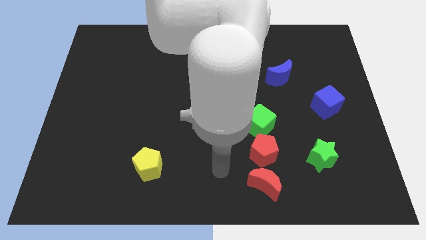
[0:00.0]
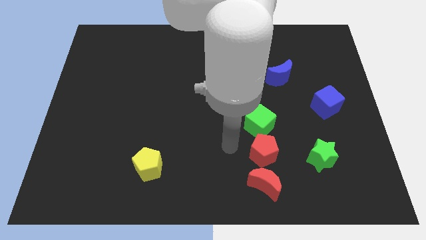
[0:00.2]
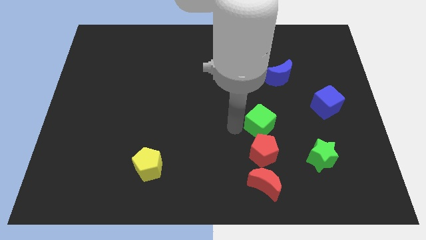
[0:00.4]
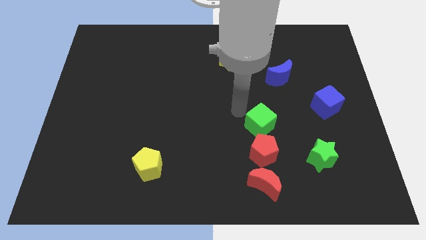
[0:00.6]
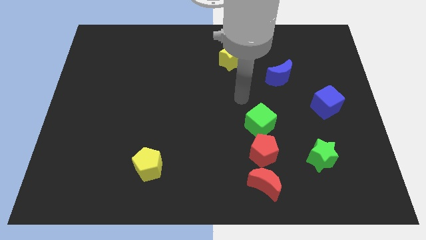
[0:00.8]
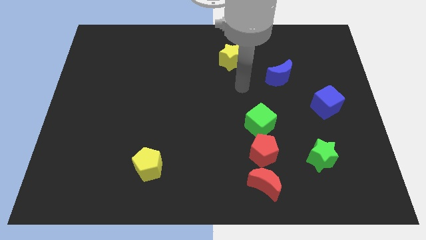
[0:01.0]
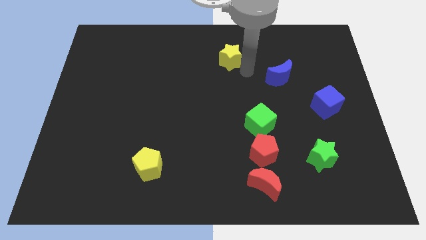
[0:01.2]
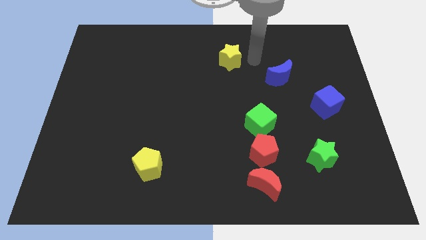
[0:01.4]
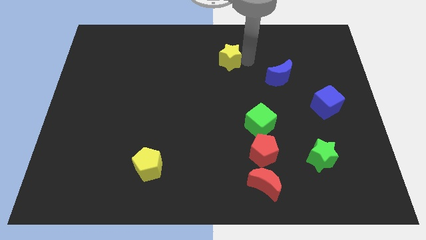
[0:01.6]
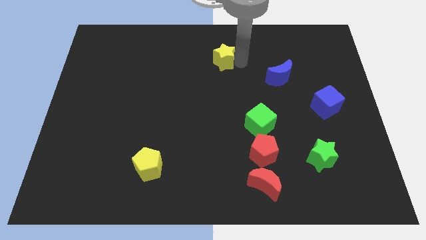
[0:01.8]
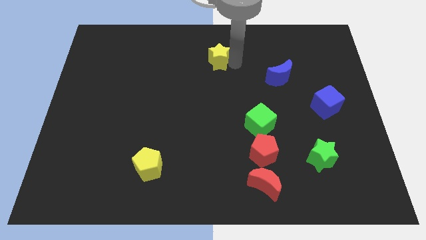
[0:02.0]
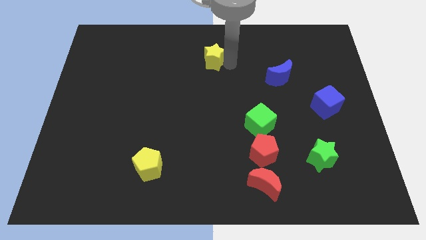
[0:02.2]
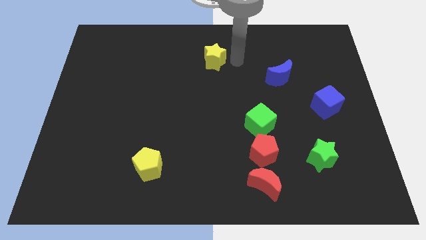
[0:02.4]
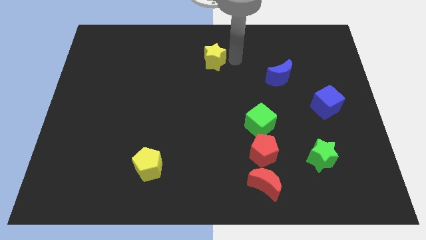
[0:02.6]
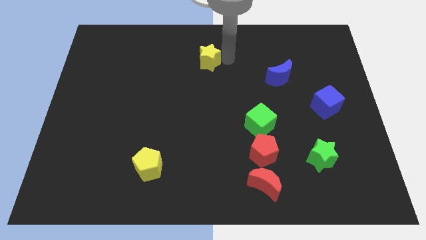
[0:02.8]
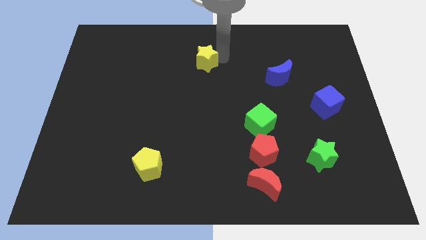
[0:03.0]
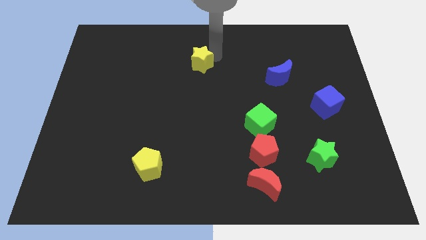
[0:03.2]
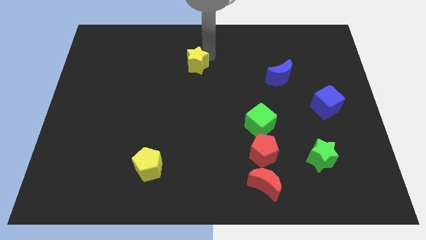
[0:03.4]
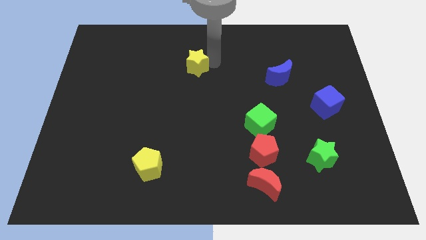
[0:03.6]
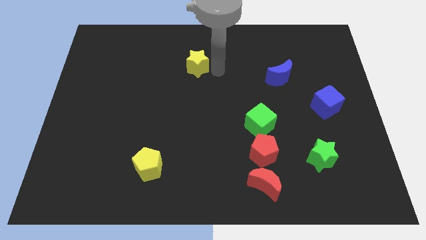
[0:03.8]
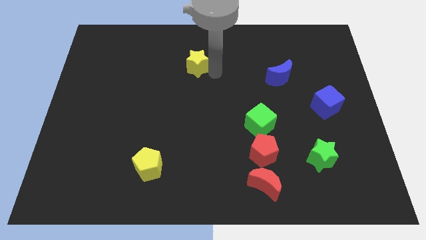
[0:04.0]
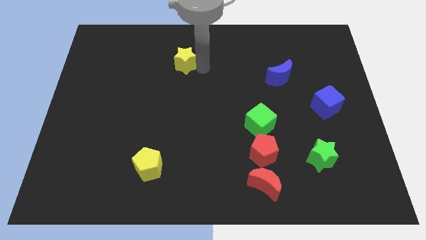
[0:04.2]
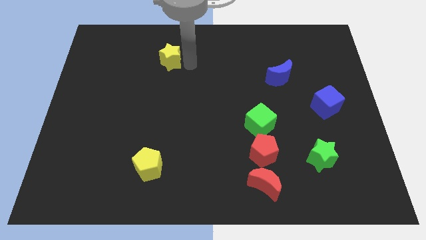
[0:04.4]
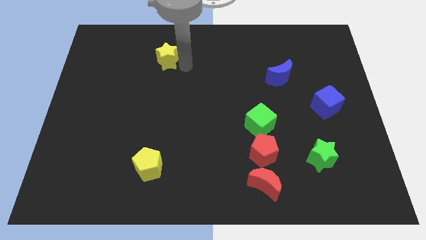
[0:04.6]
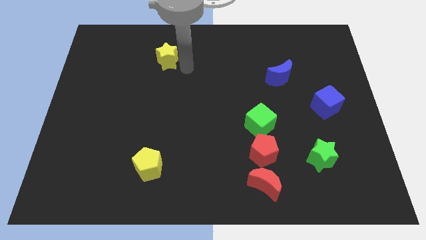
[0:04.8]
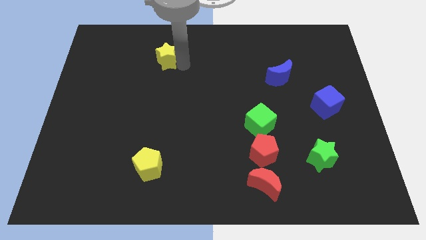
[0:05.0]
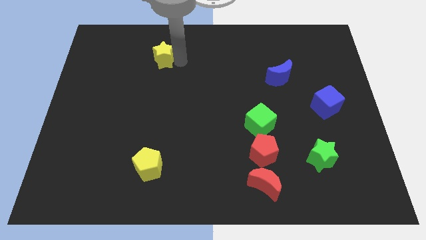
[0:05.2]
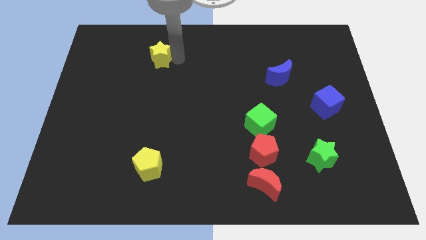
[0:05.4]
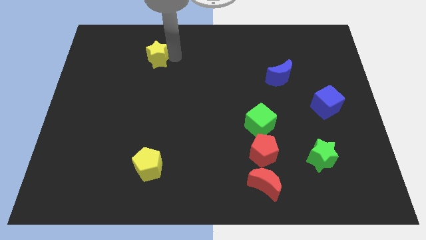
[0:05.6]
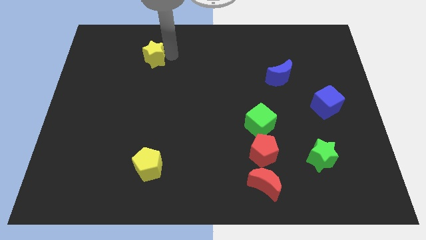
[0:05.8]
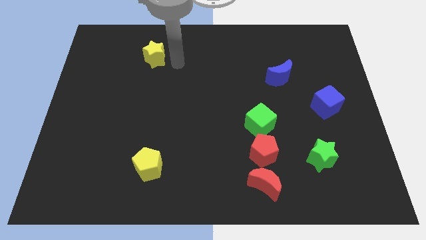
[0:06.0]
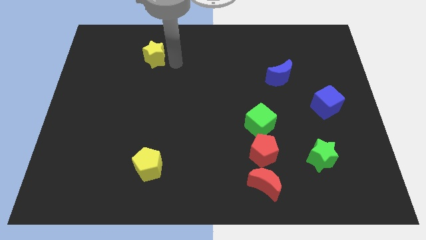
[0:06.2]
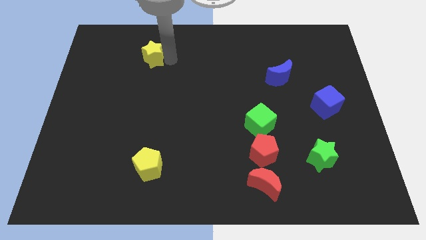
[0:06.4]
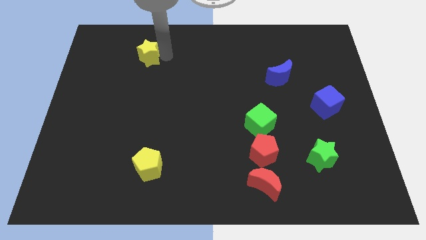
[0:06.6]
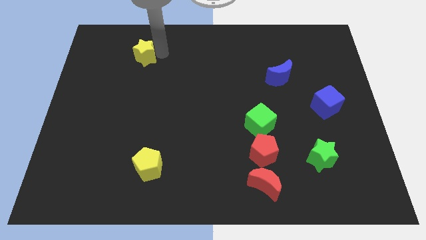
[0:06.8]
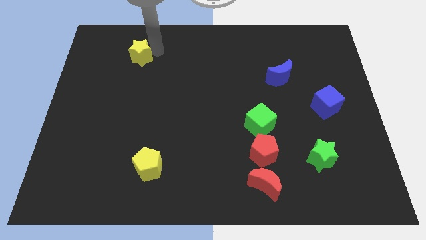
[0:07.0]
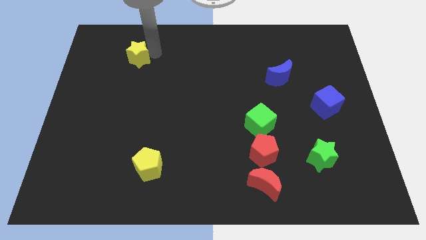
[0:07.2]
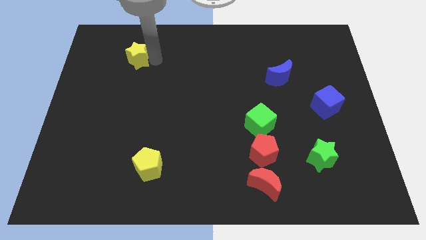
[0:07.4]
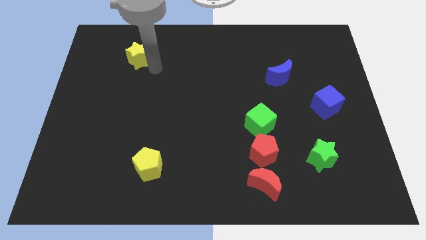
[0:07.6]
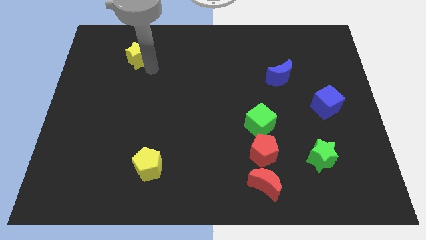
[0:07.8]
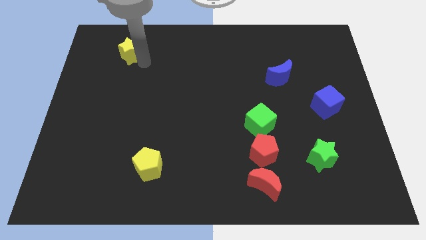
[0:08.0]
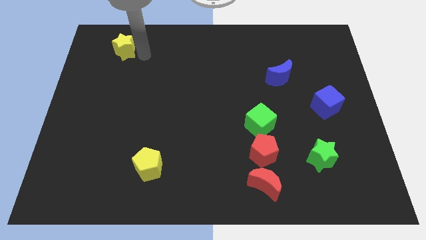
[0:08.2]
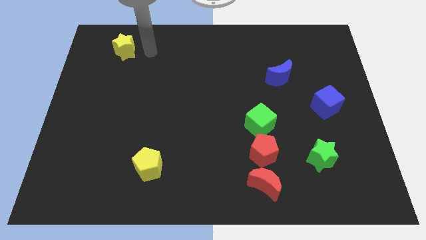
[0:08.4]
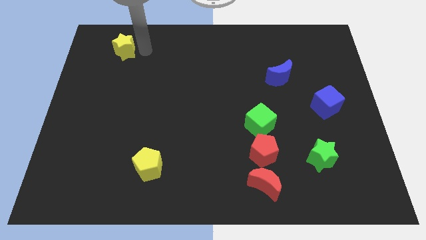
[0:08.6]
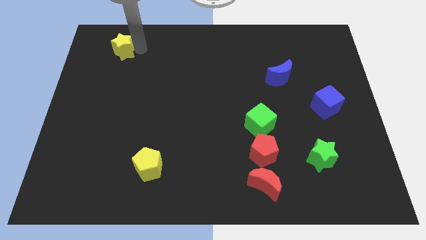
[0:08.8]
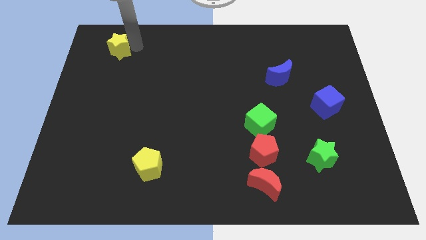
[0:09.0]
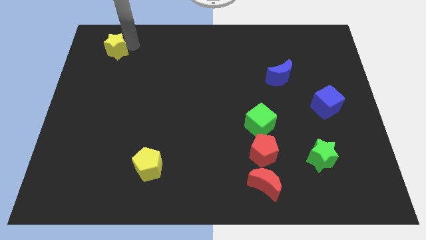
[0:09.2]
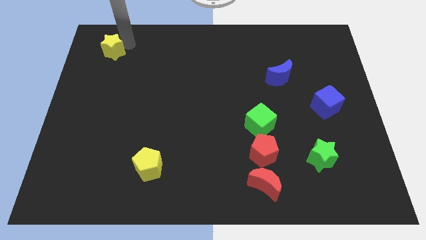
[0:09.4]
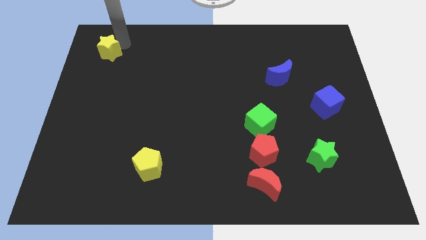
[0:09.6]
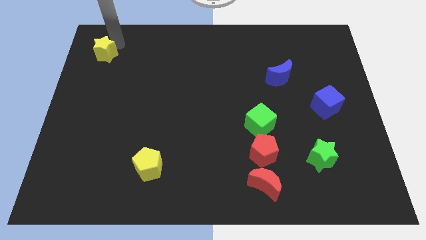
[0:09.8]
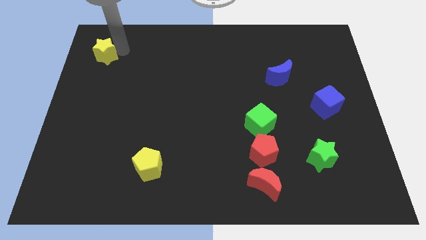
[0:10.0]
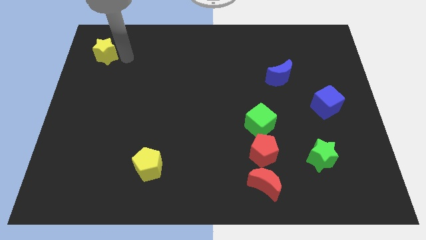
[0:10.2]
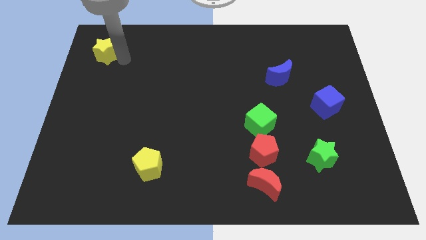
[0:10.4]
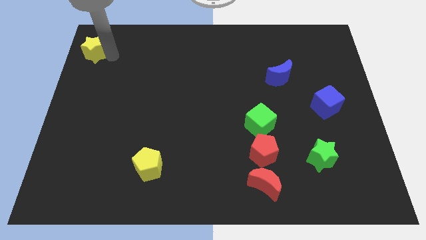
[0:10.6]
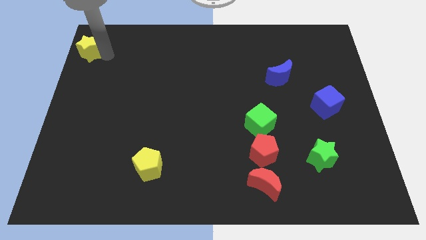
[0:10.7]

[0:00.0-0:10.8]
push the yellow star to the top left of the board

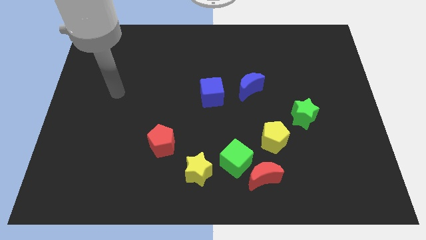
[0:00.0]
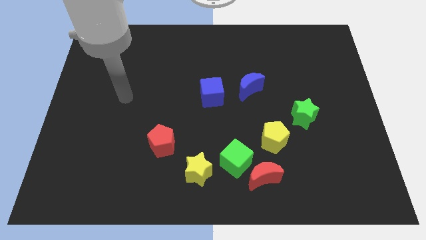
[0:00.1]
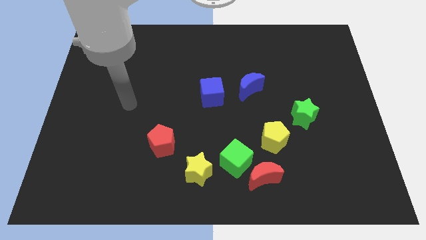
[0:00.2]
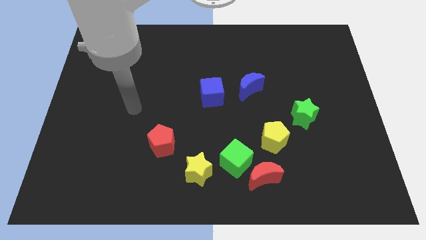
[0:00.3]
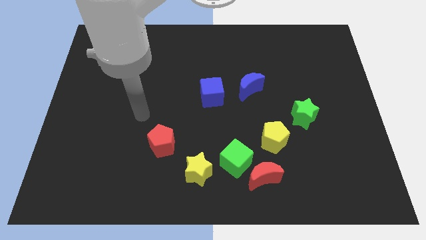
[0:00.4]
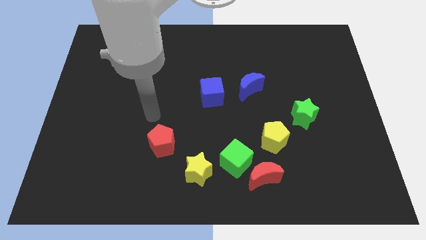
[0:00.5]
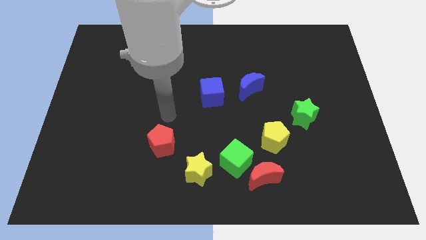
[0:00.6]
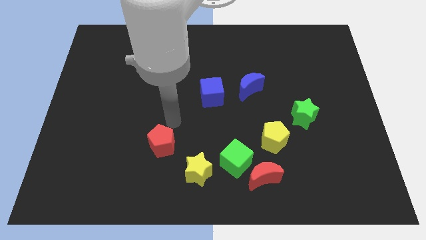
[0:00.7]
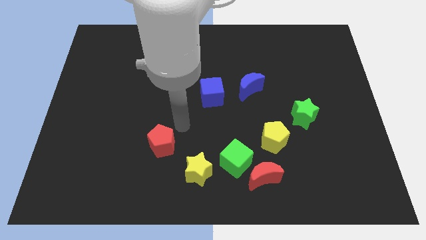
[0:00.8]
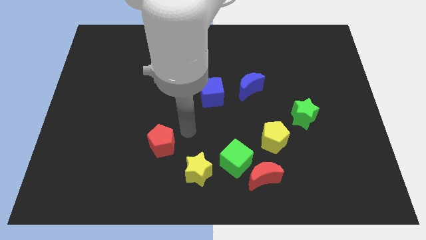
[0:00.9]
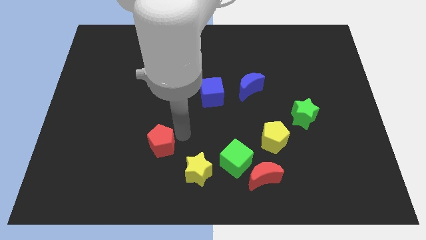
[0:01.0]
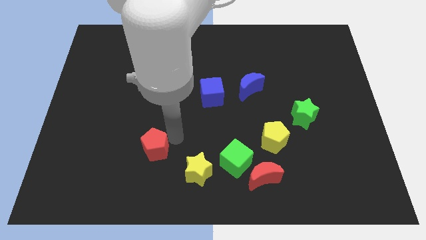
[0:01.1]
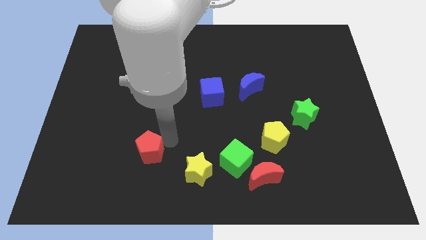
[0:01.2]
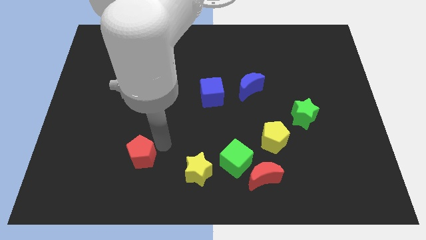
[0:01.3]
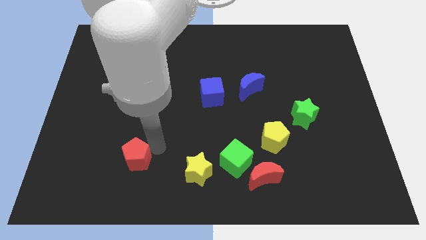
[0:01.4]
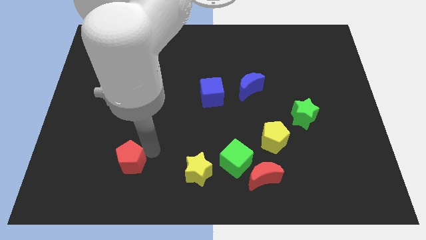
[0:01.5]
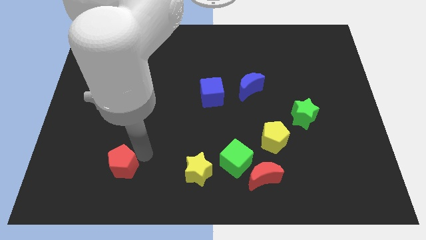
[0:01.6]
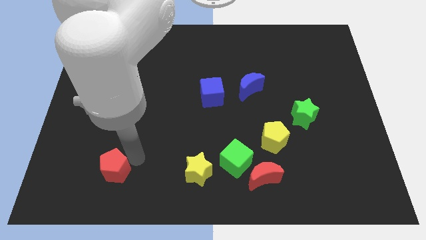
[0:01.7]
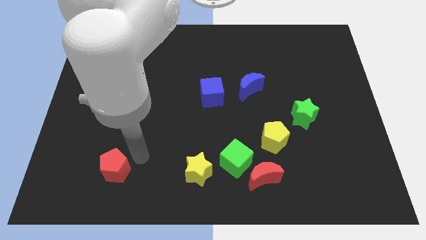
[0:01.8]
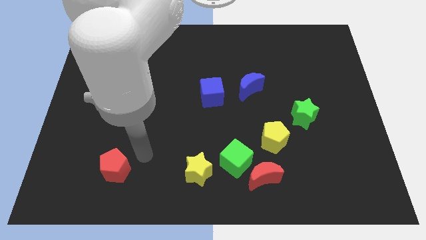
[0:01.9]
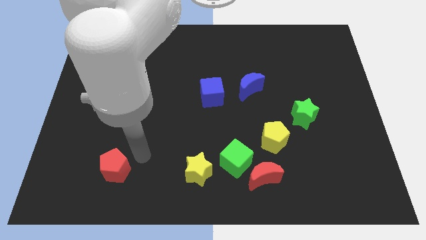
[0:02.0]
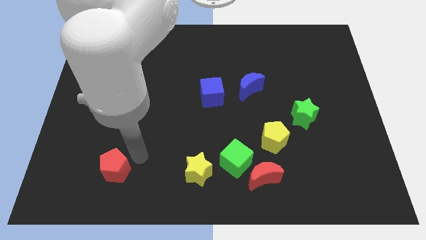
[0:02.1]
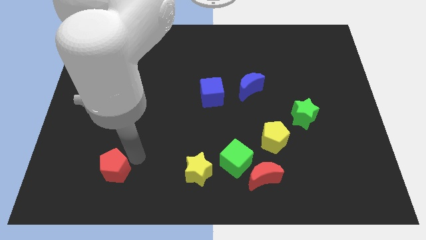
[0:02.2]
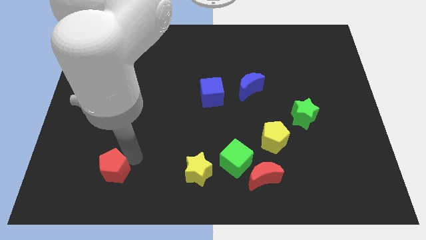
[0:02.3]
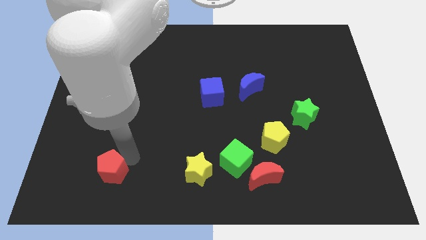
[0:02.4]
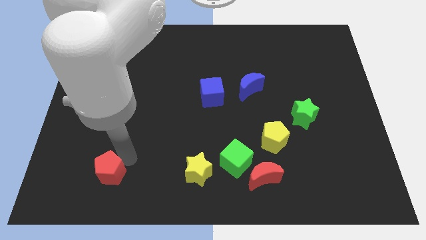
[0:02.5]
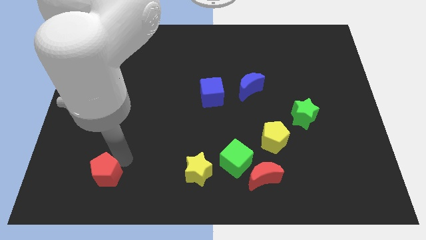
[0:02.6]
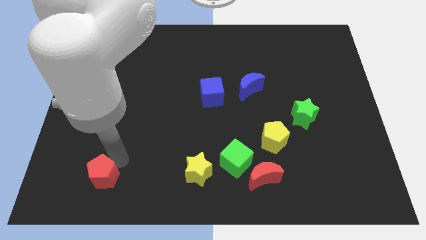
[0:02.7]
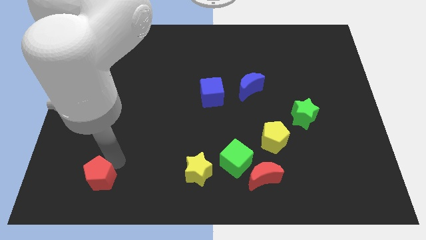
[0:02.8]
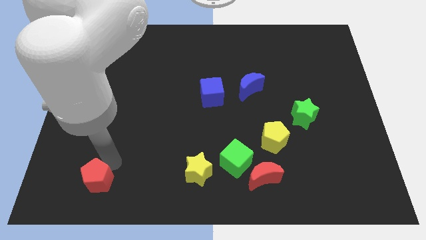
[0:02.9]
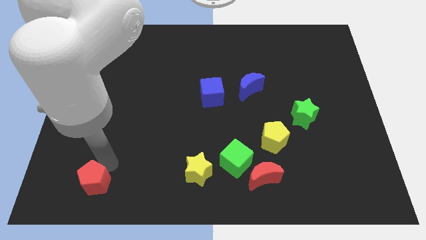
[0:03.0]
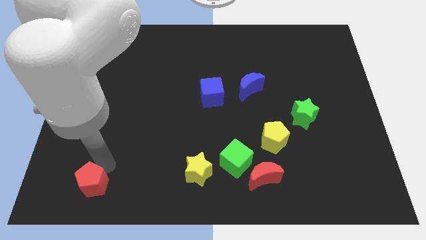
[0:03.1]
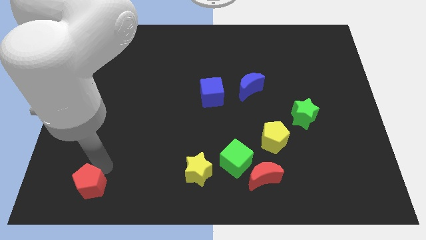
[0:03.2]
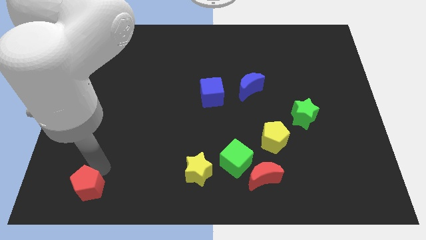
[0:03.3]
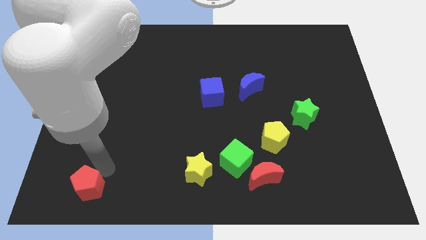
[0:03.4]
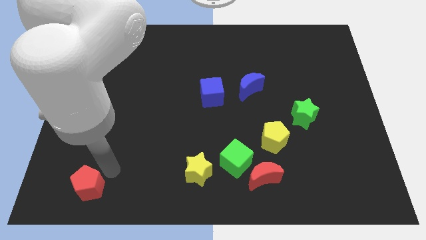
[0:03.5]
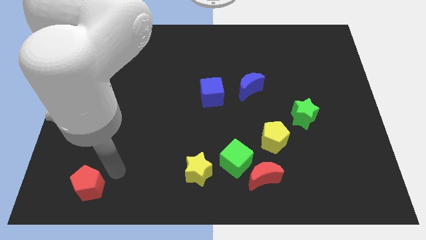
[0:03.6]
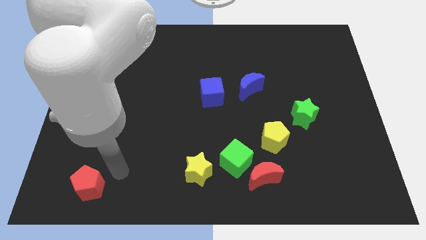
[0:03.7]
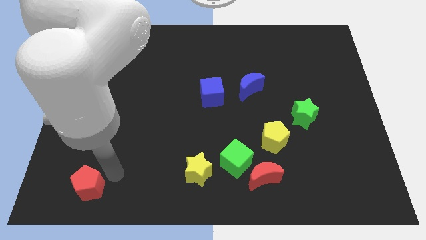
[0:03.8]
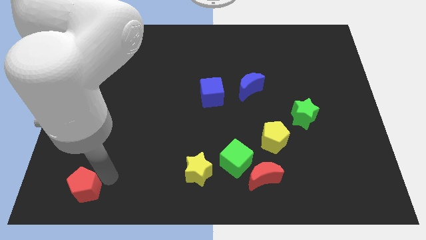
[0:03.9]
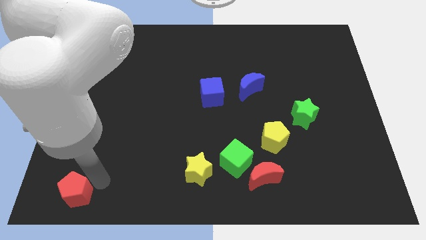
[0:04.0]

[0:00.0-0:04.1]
move the red pentagon to the bottom left corner
